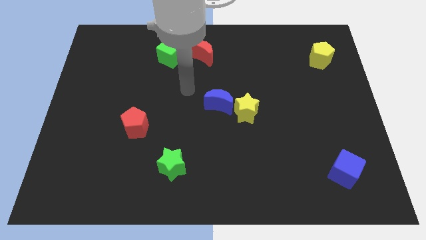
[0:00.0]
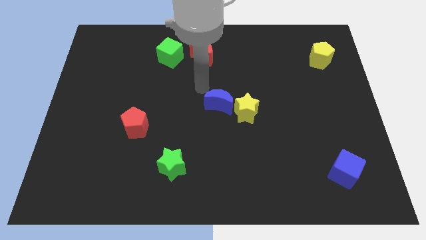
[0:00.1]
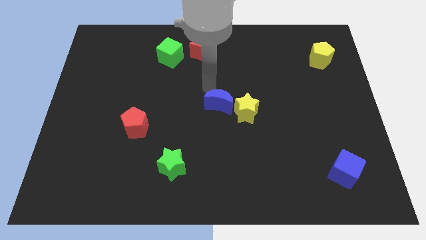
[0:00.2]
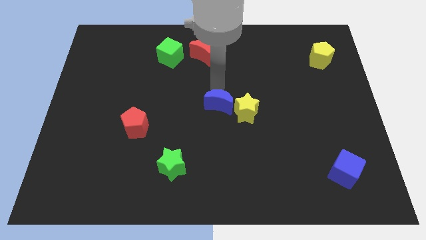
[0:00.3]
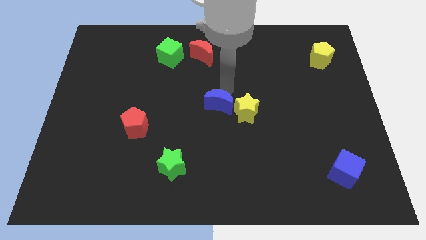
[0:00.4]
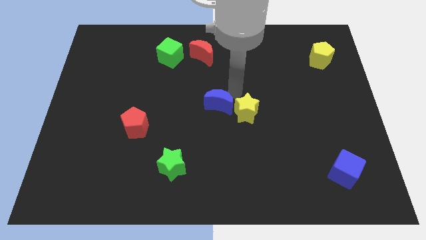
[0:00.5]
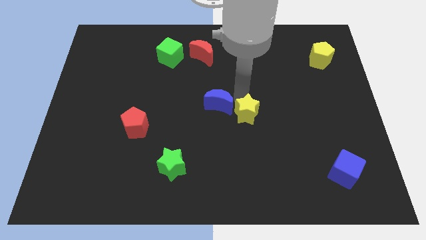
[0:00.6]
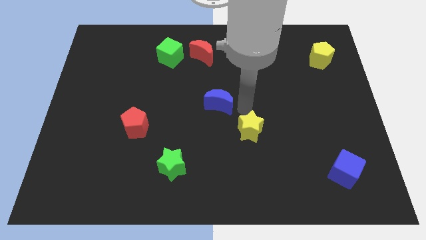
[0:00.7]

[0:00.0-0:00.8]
separate the blue moon from the yellow star

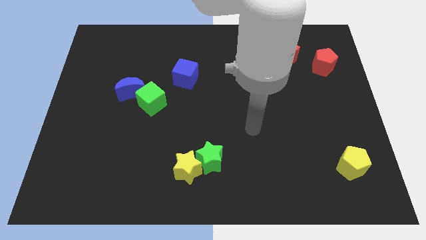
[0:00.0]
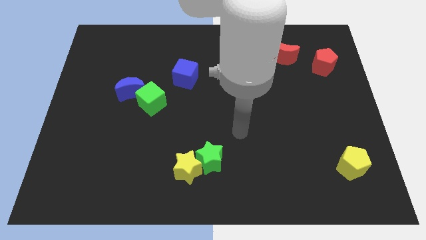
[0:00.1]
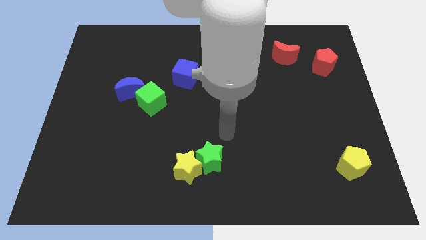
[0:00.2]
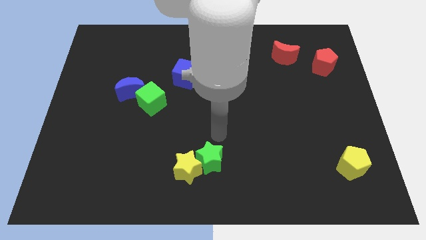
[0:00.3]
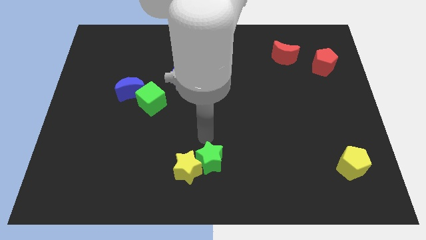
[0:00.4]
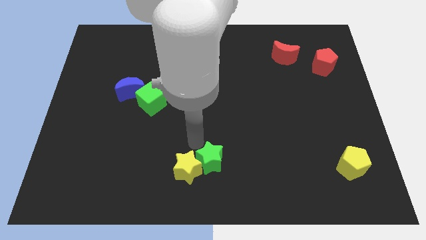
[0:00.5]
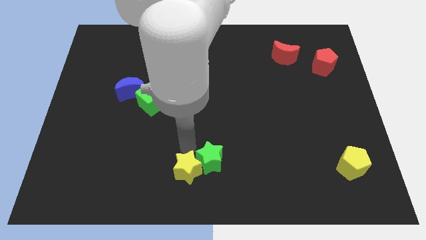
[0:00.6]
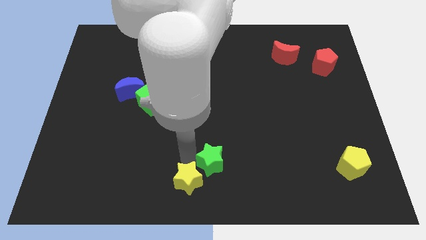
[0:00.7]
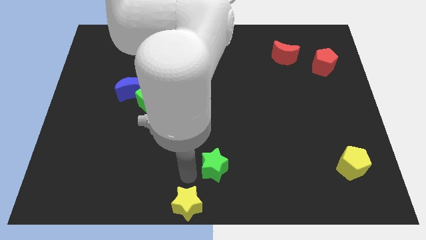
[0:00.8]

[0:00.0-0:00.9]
move the green star away from the yellow star

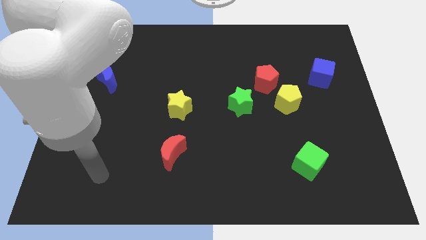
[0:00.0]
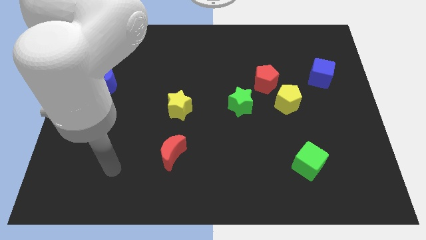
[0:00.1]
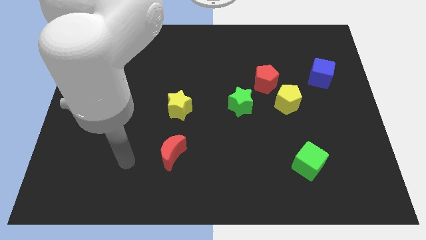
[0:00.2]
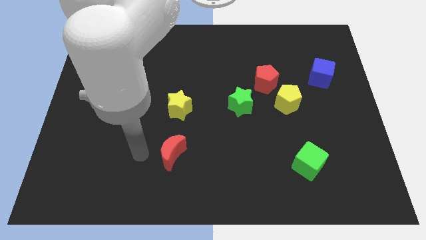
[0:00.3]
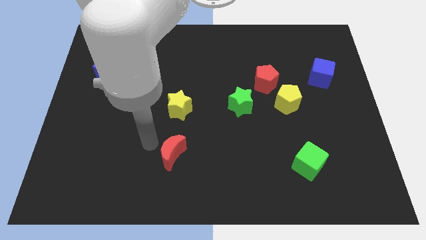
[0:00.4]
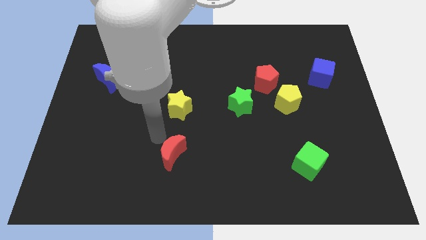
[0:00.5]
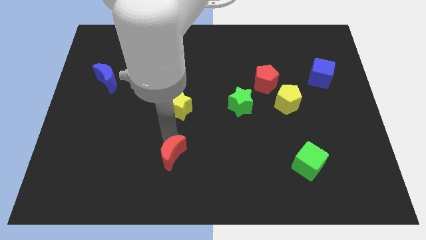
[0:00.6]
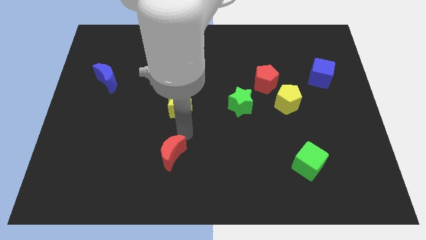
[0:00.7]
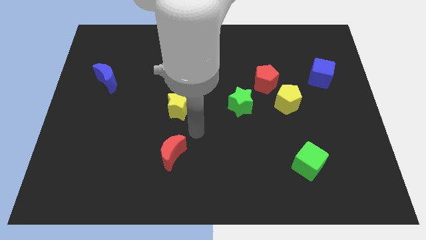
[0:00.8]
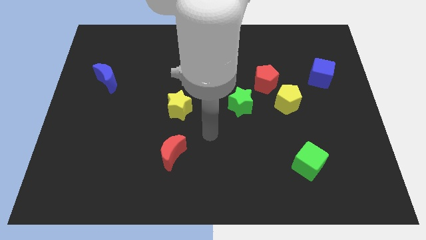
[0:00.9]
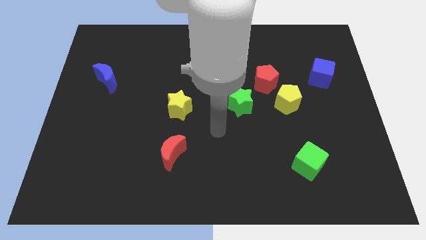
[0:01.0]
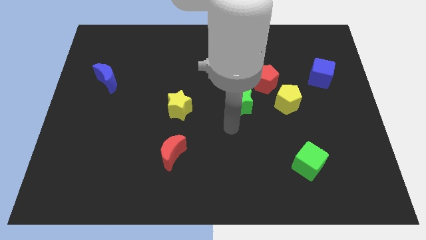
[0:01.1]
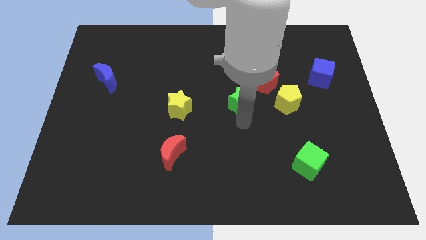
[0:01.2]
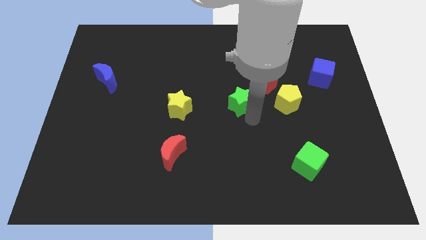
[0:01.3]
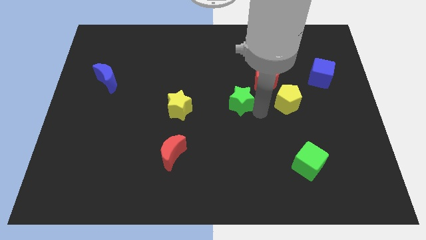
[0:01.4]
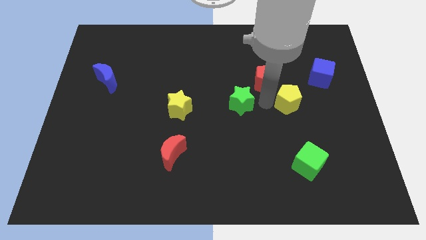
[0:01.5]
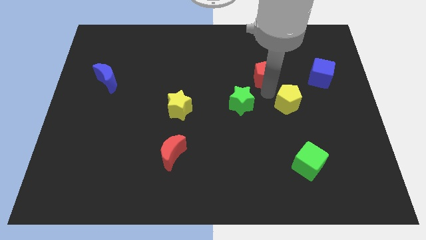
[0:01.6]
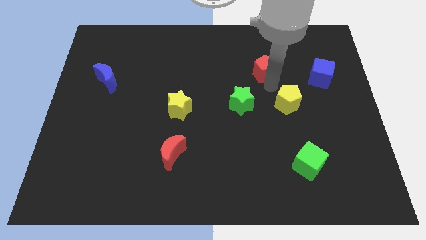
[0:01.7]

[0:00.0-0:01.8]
separate the yellow pentagon from the red pentagon

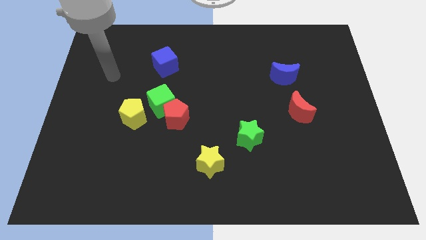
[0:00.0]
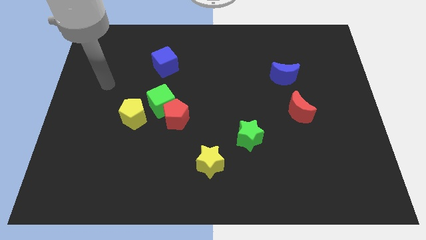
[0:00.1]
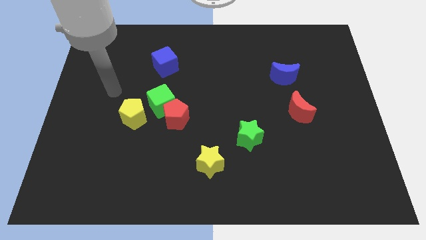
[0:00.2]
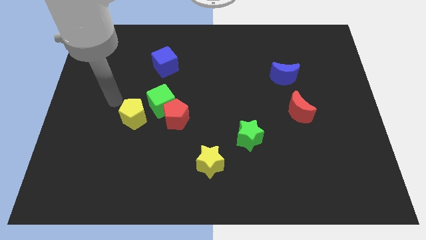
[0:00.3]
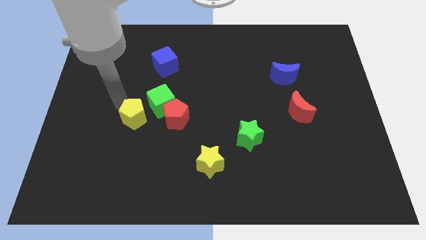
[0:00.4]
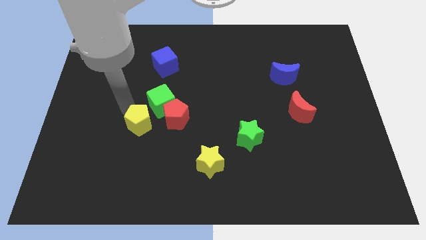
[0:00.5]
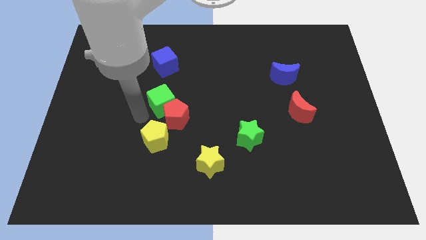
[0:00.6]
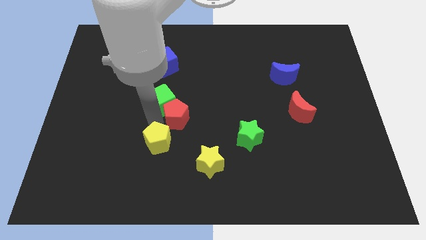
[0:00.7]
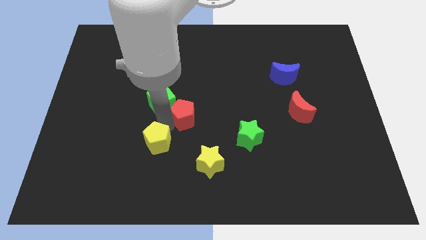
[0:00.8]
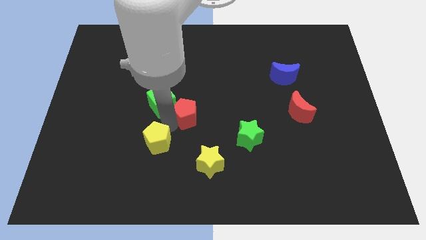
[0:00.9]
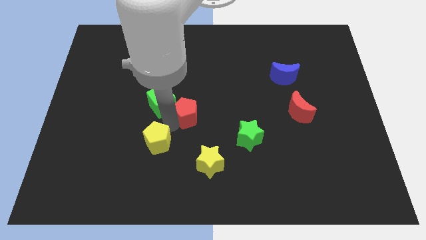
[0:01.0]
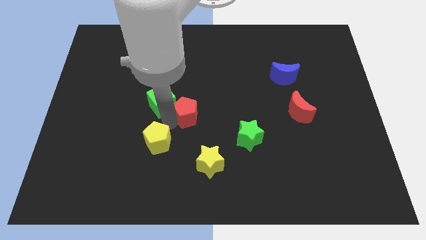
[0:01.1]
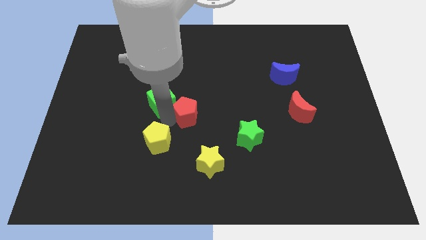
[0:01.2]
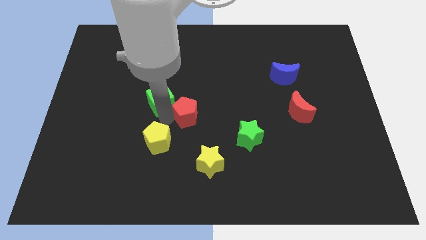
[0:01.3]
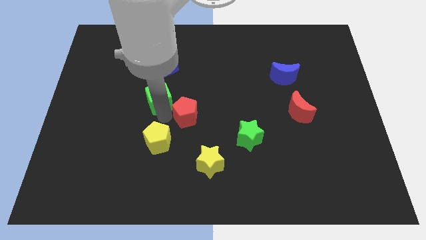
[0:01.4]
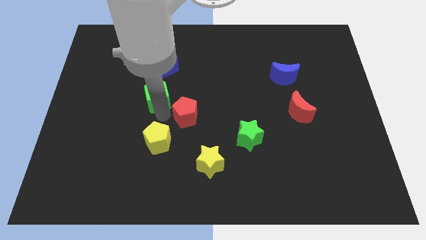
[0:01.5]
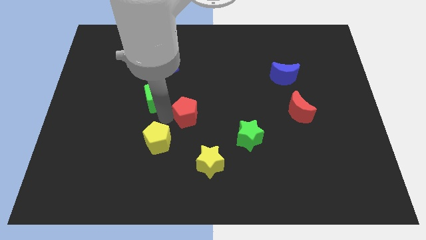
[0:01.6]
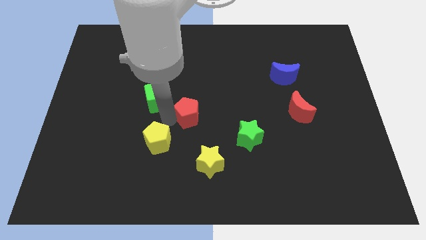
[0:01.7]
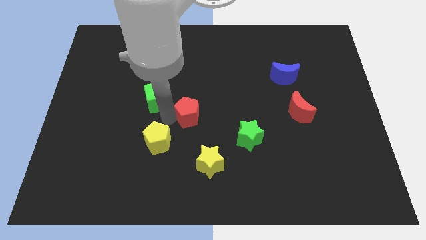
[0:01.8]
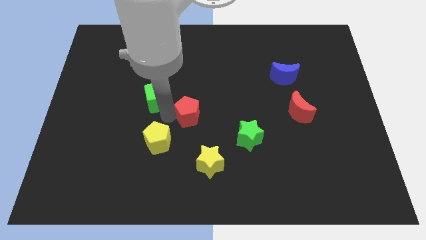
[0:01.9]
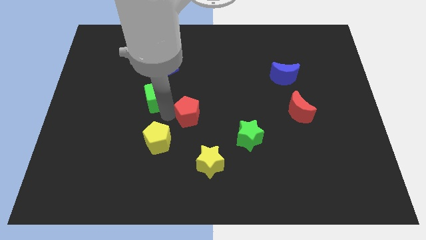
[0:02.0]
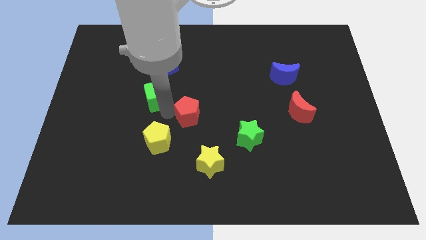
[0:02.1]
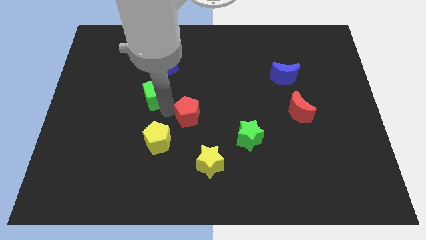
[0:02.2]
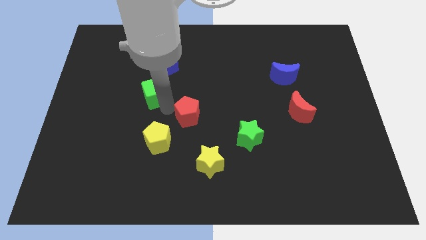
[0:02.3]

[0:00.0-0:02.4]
separate the green cube from the red pentagon and yellow pentagon

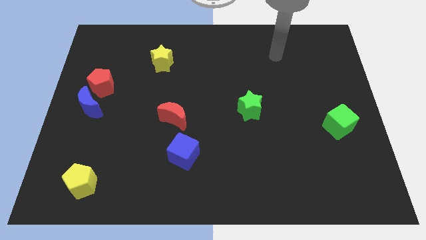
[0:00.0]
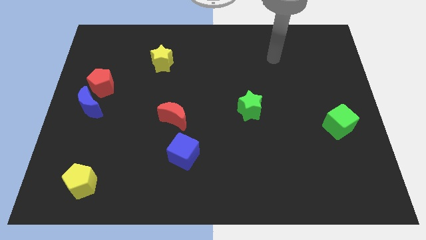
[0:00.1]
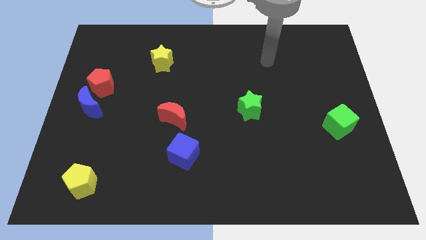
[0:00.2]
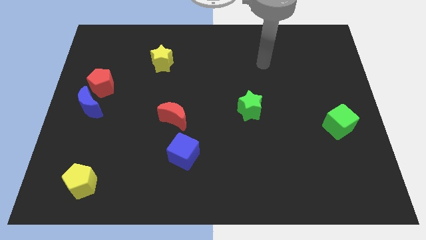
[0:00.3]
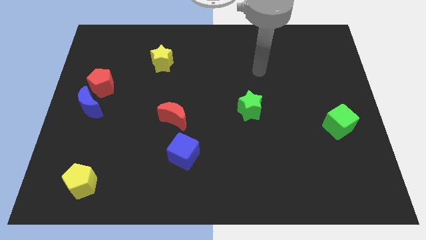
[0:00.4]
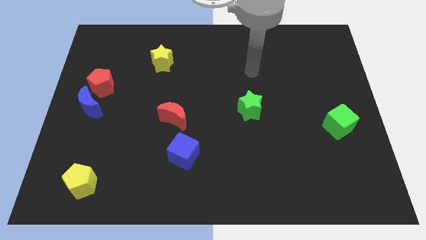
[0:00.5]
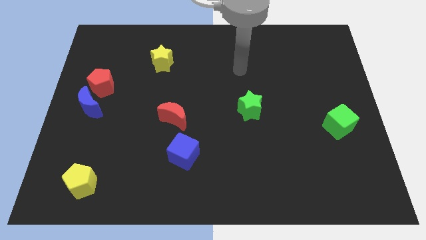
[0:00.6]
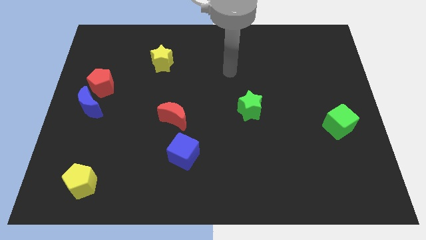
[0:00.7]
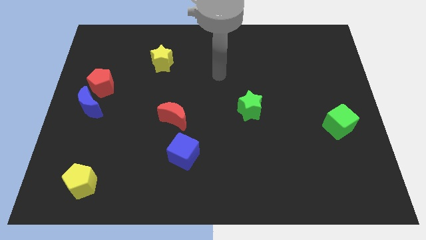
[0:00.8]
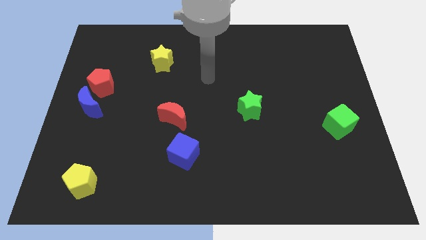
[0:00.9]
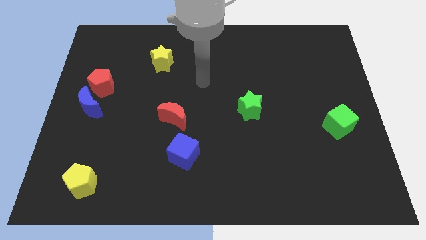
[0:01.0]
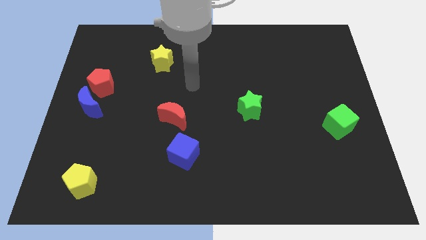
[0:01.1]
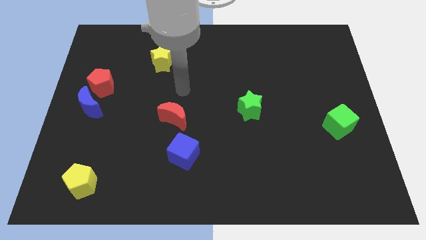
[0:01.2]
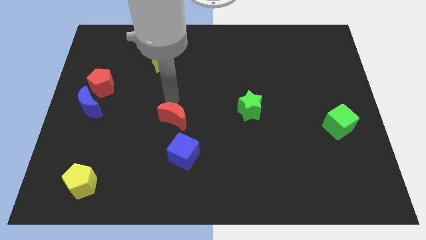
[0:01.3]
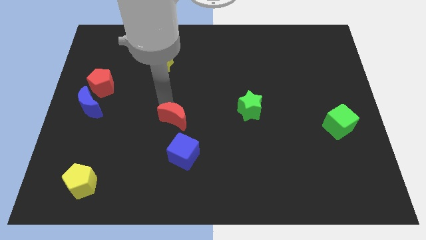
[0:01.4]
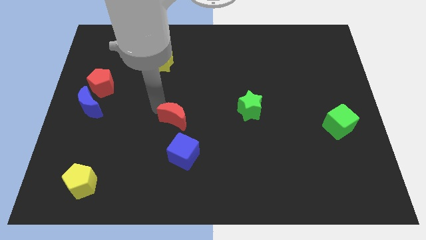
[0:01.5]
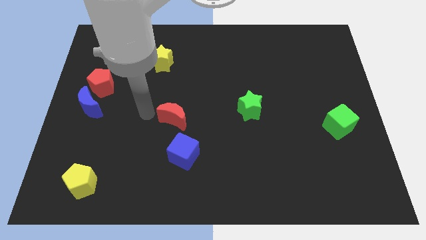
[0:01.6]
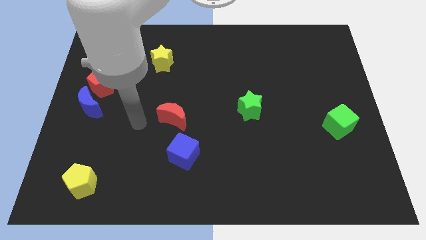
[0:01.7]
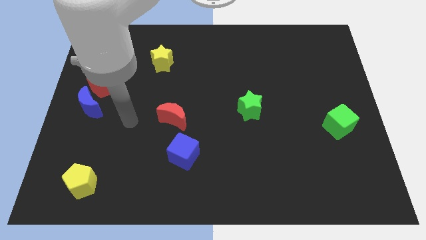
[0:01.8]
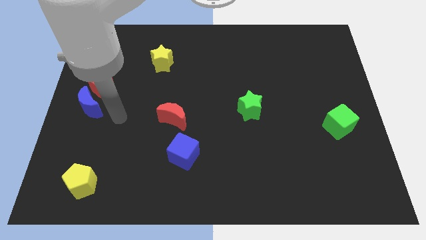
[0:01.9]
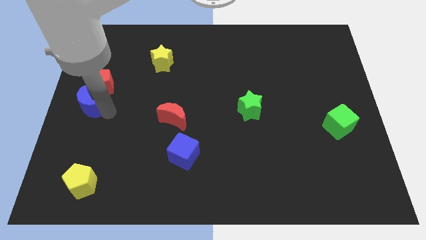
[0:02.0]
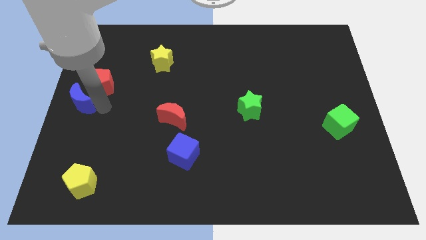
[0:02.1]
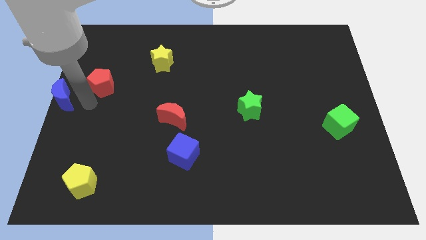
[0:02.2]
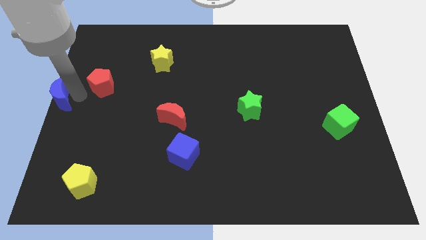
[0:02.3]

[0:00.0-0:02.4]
separate the red pentagon from the blue moon

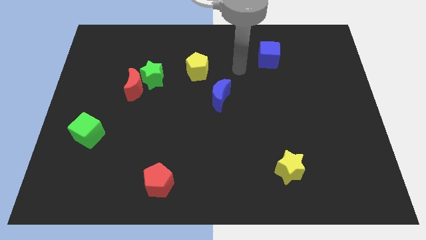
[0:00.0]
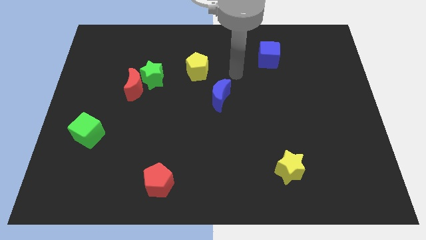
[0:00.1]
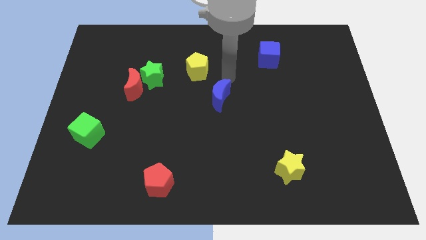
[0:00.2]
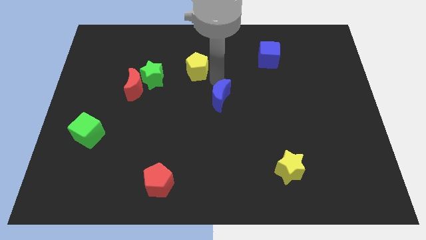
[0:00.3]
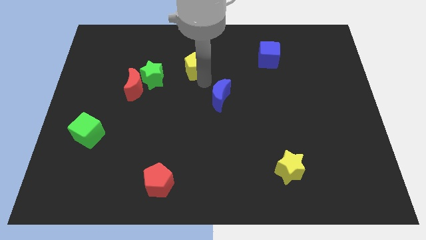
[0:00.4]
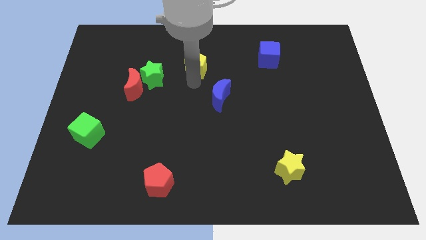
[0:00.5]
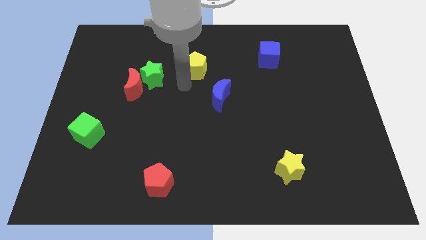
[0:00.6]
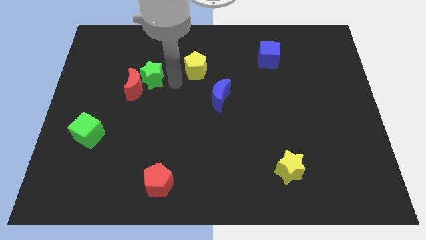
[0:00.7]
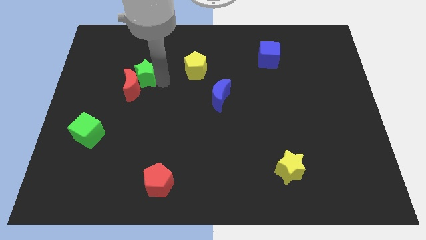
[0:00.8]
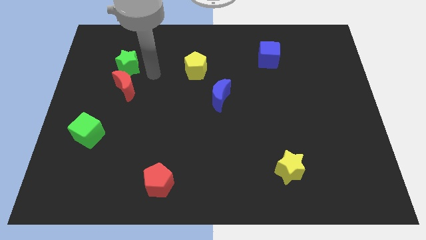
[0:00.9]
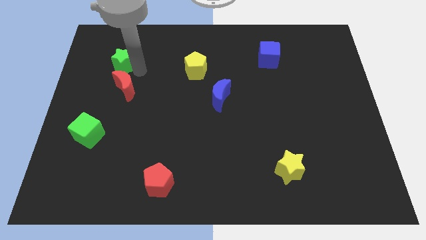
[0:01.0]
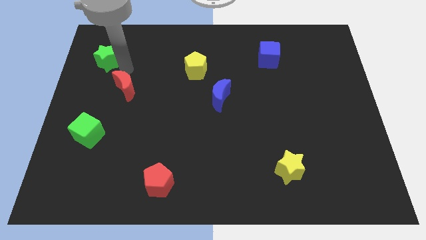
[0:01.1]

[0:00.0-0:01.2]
separate the red moon from the green star
